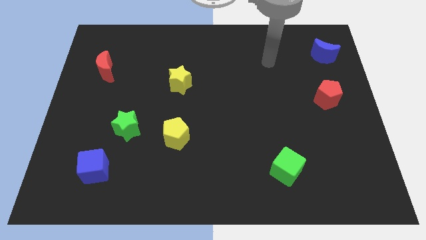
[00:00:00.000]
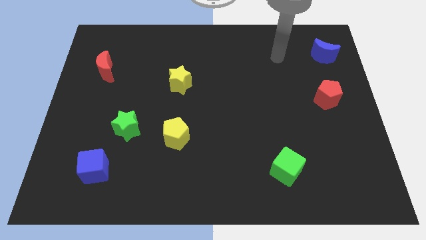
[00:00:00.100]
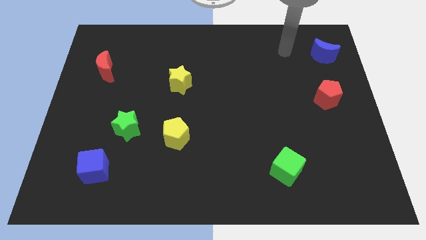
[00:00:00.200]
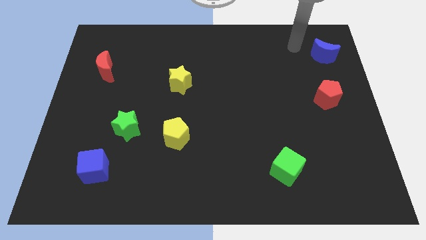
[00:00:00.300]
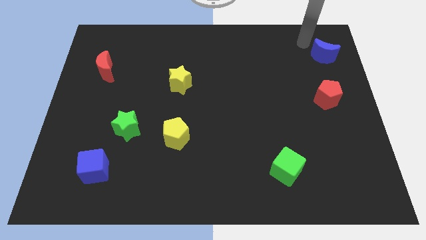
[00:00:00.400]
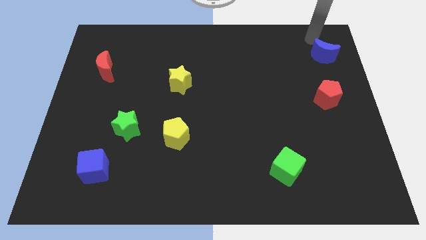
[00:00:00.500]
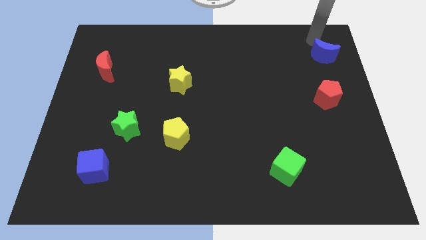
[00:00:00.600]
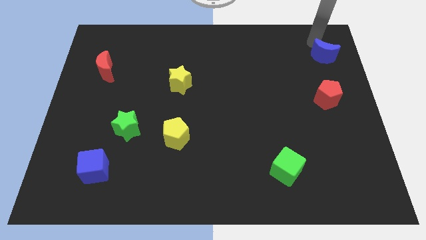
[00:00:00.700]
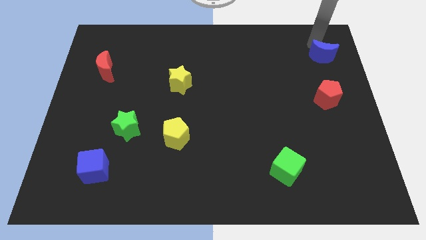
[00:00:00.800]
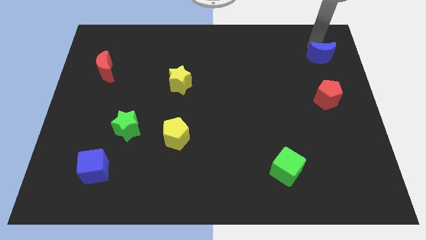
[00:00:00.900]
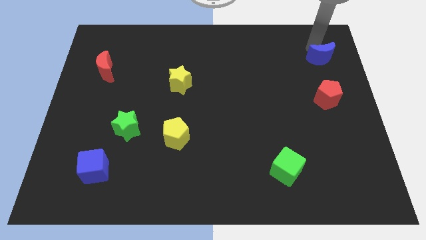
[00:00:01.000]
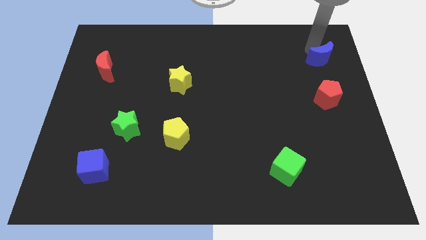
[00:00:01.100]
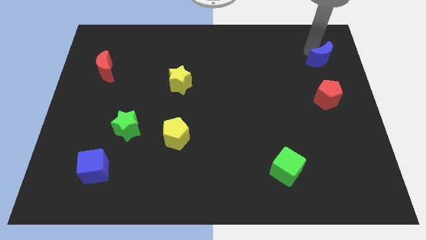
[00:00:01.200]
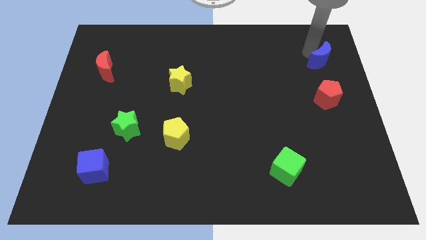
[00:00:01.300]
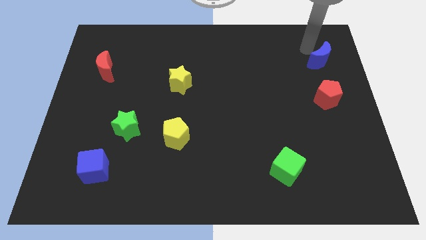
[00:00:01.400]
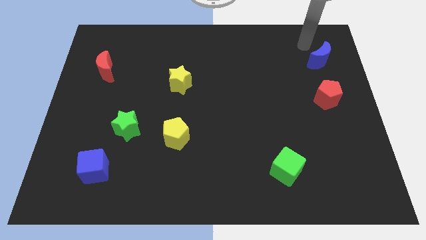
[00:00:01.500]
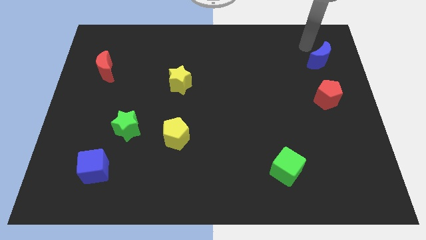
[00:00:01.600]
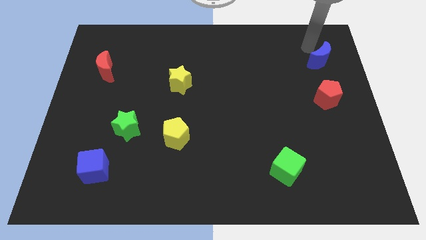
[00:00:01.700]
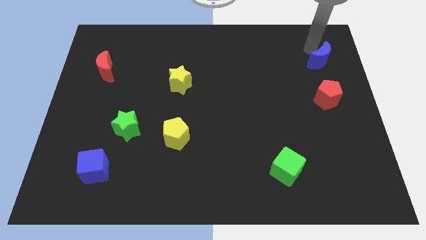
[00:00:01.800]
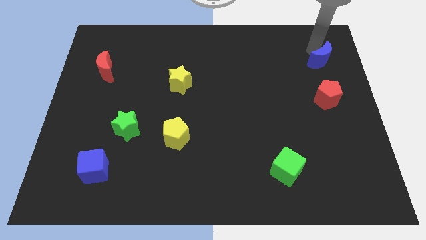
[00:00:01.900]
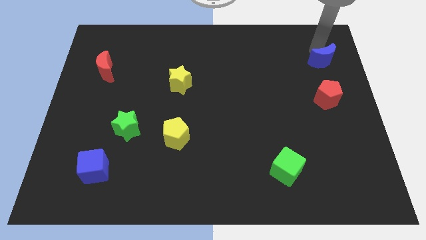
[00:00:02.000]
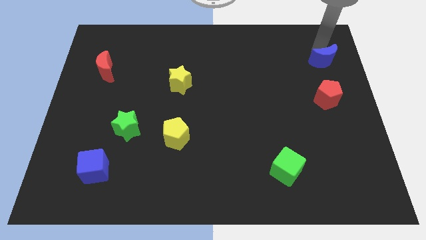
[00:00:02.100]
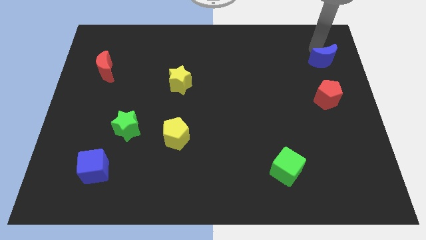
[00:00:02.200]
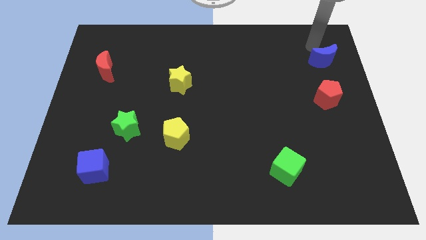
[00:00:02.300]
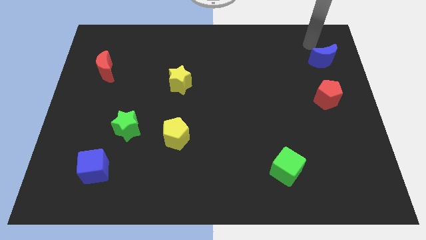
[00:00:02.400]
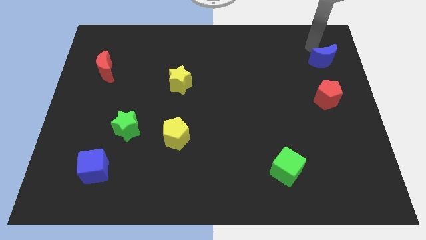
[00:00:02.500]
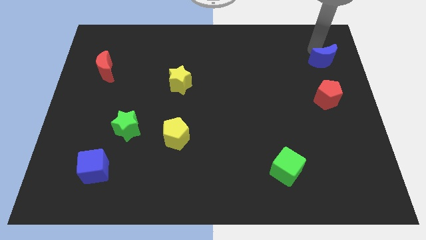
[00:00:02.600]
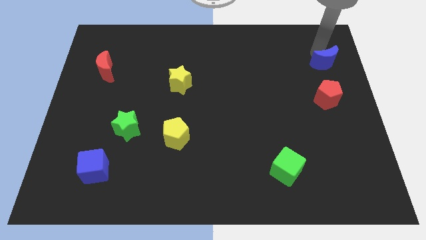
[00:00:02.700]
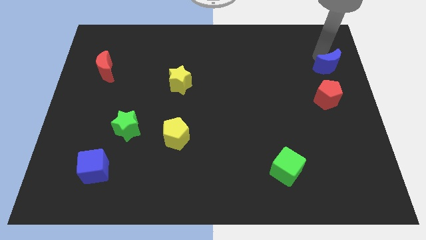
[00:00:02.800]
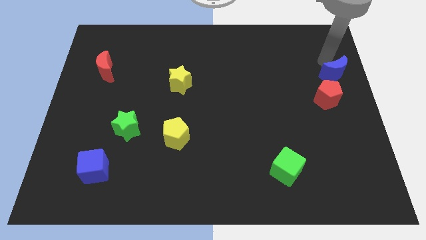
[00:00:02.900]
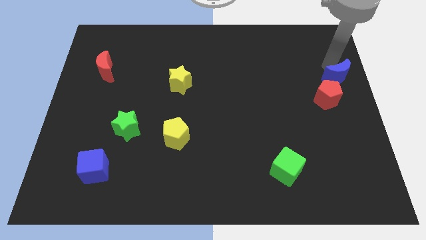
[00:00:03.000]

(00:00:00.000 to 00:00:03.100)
move the blue moon downwards somewhat

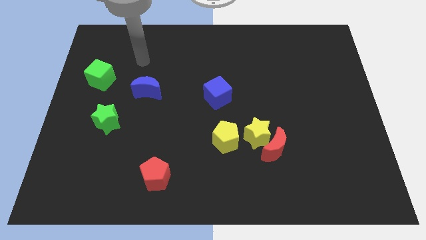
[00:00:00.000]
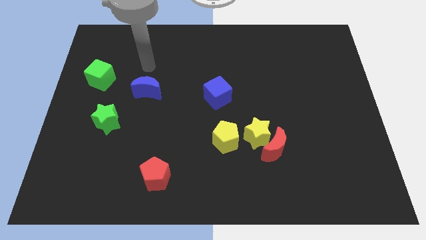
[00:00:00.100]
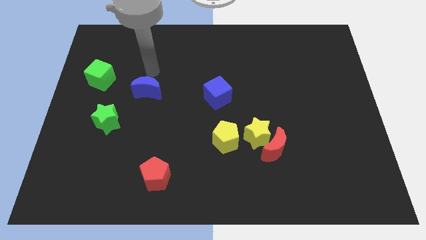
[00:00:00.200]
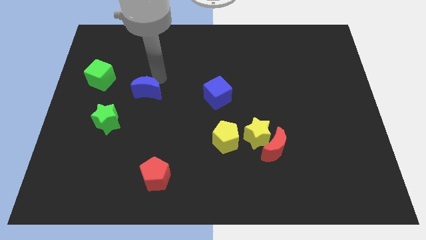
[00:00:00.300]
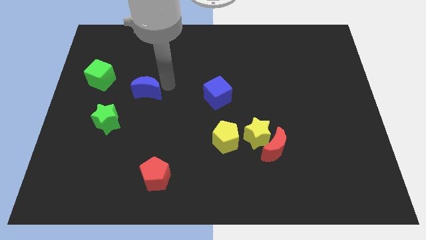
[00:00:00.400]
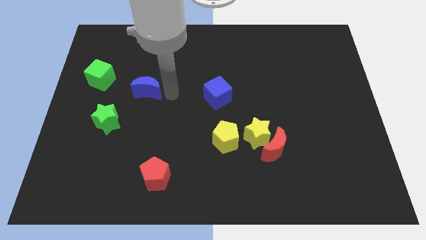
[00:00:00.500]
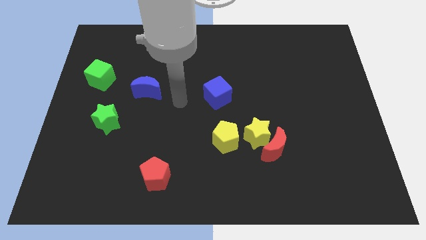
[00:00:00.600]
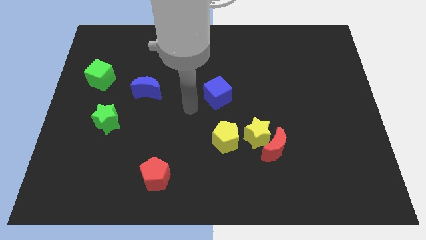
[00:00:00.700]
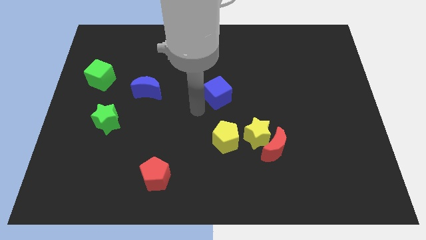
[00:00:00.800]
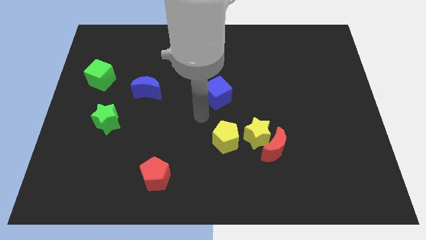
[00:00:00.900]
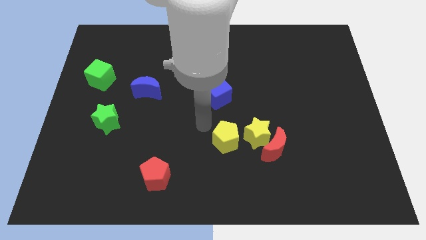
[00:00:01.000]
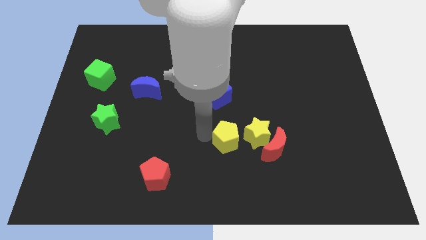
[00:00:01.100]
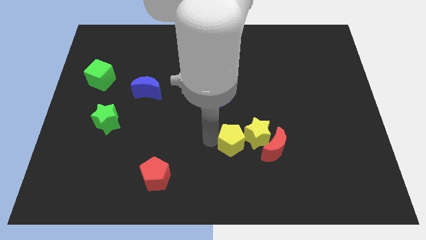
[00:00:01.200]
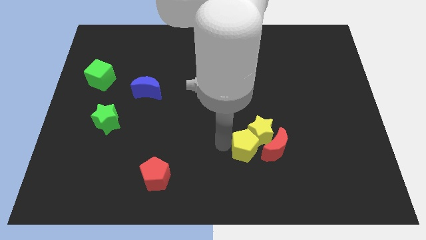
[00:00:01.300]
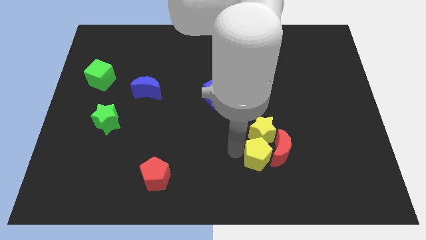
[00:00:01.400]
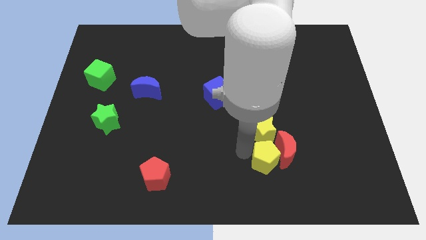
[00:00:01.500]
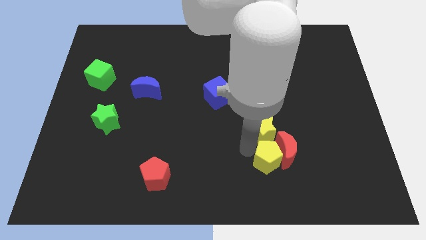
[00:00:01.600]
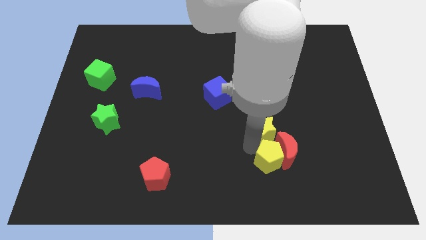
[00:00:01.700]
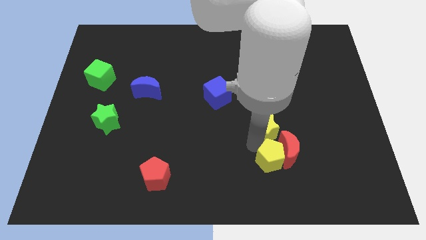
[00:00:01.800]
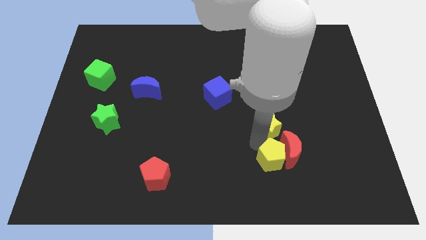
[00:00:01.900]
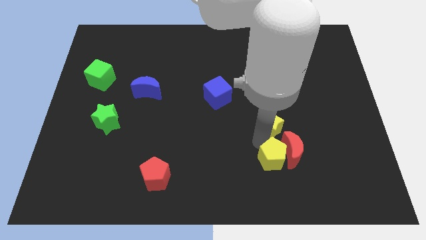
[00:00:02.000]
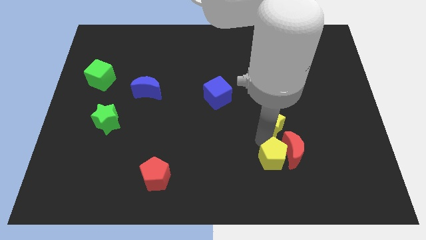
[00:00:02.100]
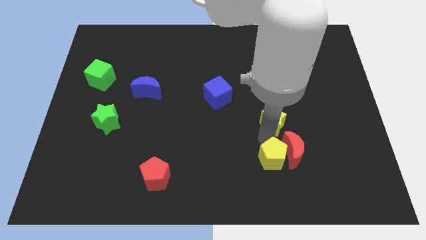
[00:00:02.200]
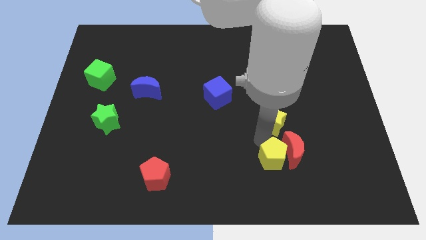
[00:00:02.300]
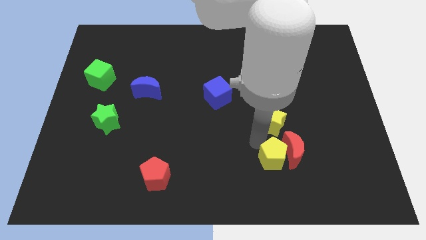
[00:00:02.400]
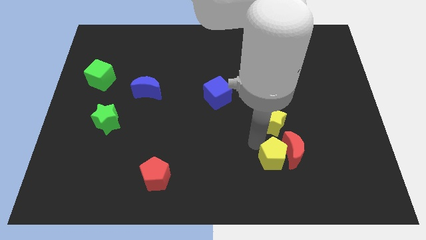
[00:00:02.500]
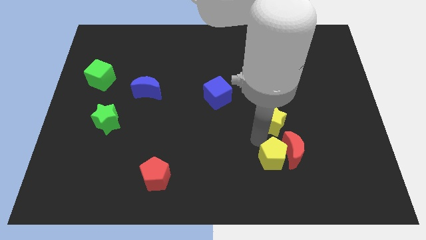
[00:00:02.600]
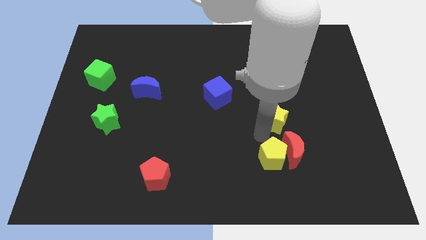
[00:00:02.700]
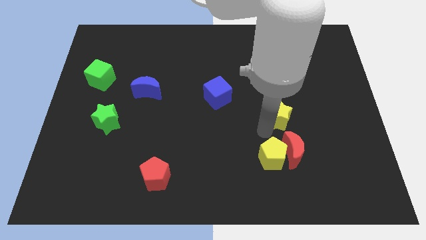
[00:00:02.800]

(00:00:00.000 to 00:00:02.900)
slide the yellow star upwards and to the right diagonally somewhat

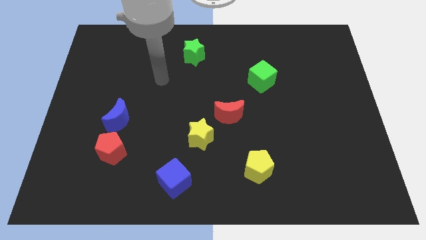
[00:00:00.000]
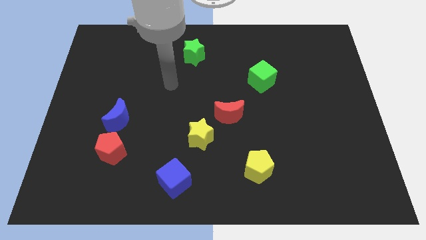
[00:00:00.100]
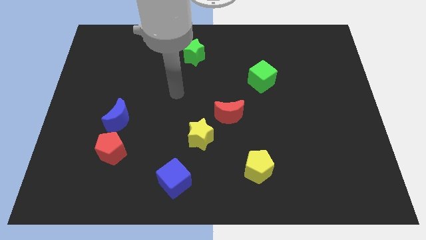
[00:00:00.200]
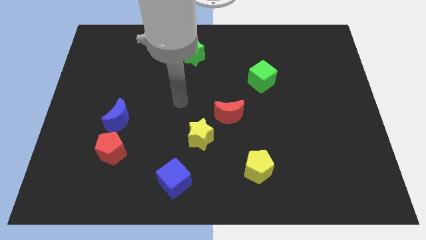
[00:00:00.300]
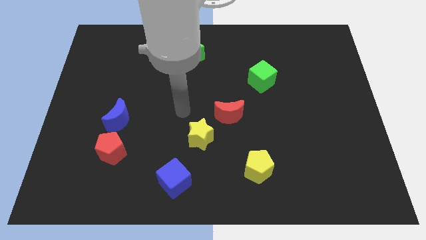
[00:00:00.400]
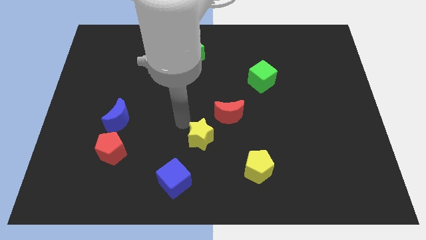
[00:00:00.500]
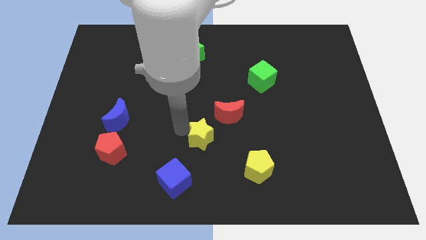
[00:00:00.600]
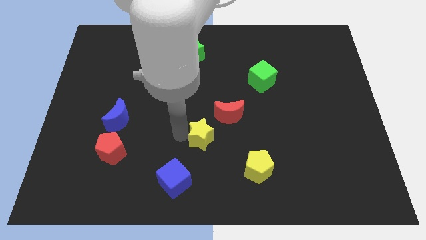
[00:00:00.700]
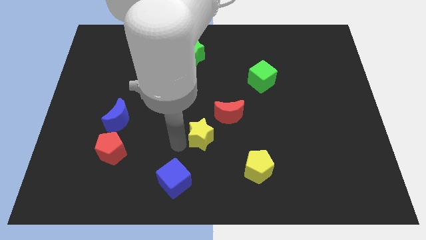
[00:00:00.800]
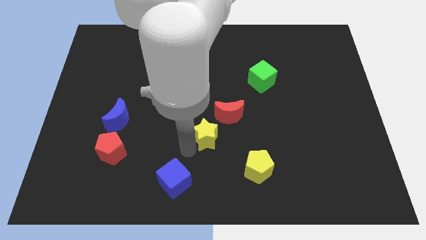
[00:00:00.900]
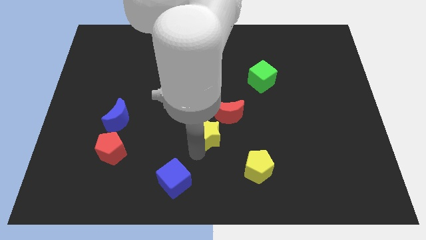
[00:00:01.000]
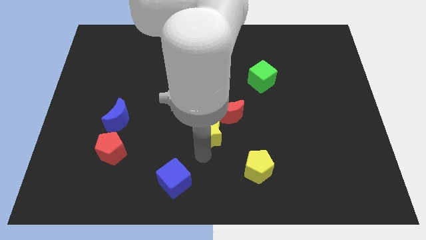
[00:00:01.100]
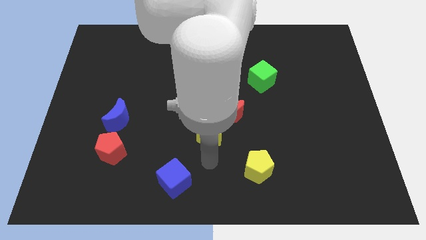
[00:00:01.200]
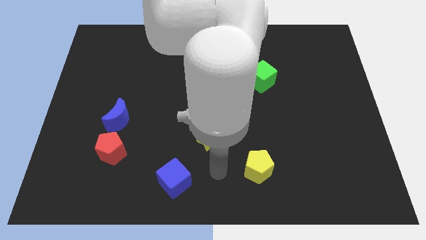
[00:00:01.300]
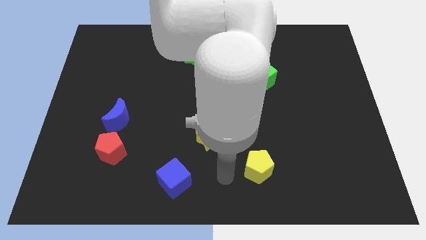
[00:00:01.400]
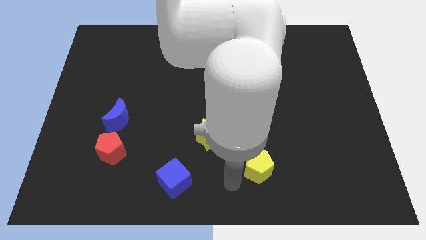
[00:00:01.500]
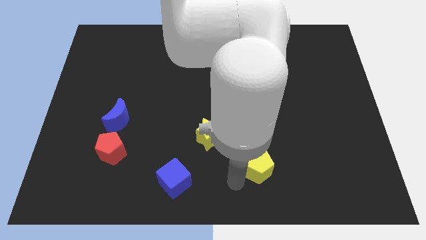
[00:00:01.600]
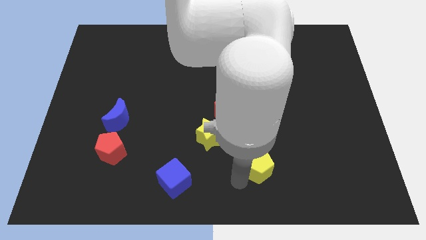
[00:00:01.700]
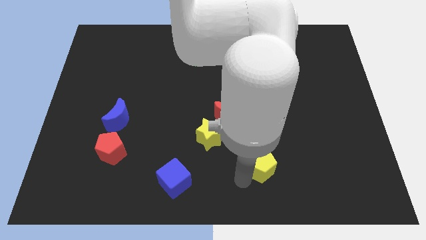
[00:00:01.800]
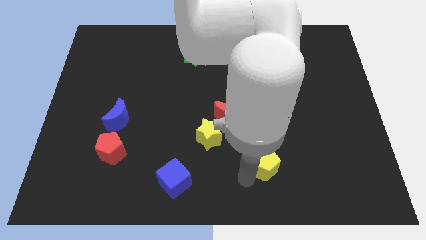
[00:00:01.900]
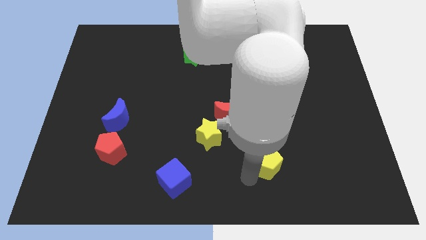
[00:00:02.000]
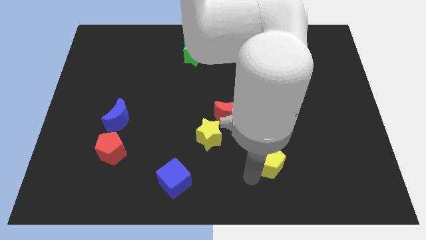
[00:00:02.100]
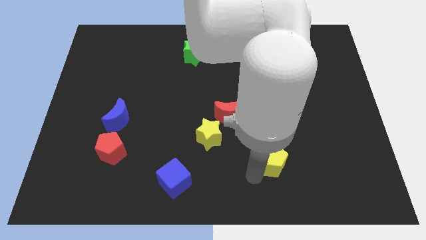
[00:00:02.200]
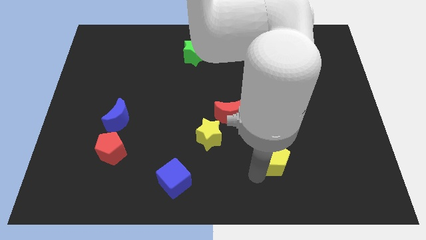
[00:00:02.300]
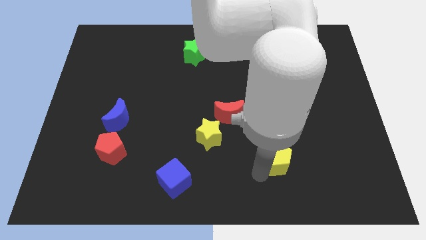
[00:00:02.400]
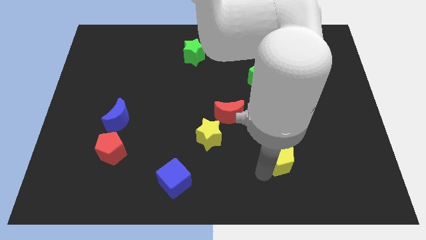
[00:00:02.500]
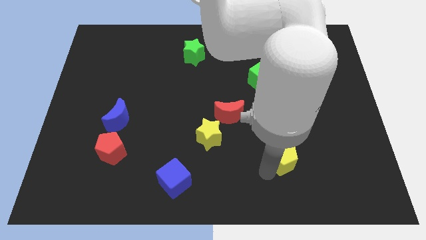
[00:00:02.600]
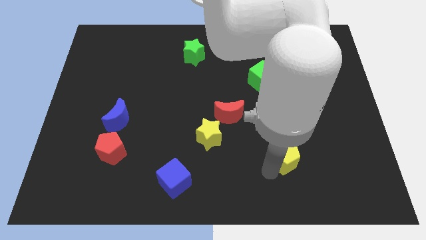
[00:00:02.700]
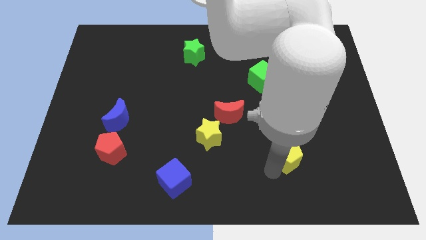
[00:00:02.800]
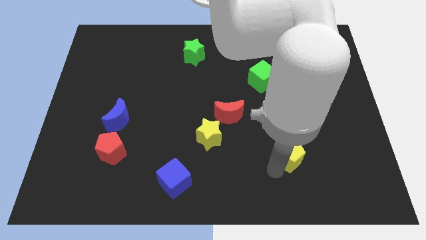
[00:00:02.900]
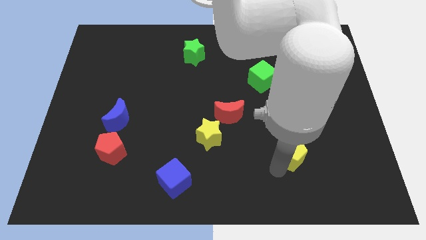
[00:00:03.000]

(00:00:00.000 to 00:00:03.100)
slightly push the yellow pentagon diagonally upwards and right
